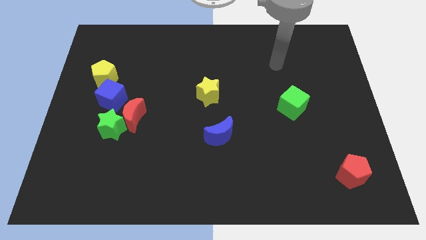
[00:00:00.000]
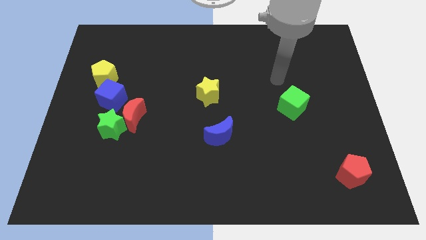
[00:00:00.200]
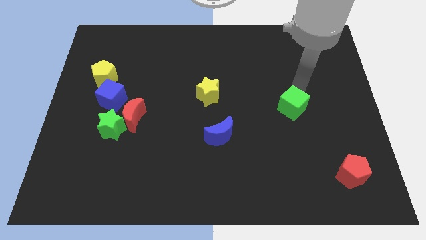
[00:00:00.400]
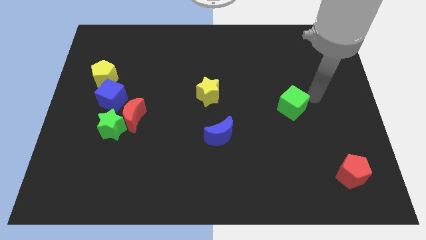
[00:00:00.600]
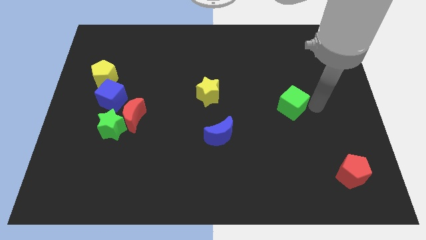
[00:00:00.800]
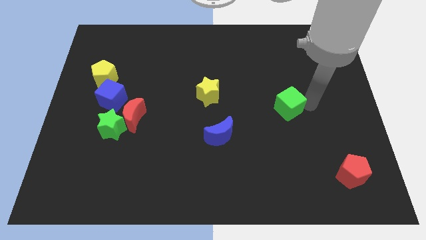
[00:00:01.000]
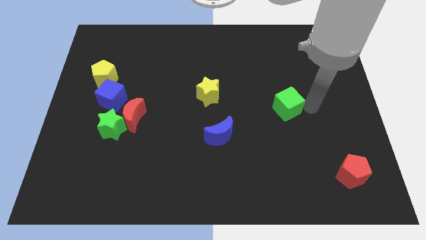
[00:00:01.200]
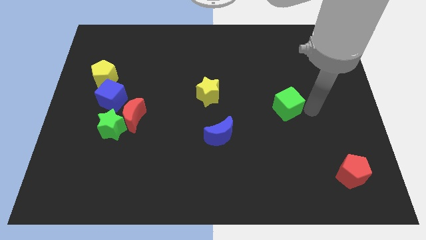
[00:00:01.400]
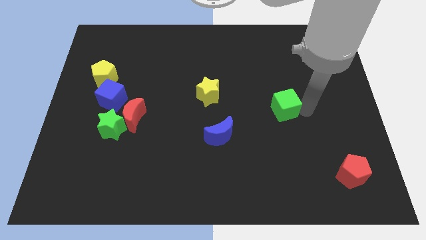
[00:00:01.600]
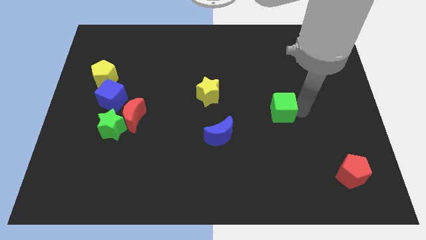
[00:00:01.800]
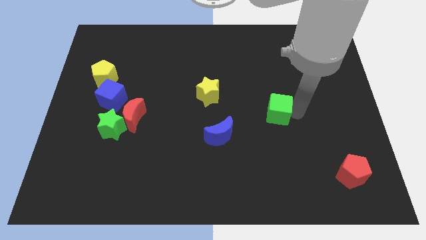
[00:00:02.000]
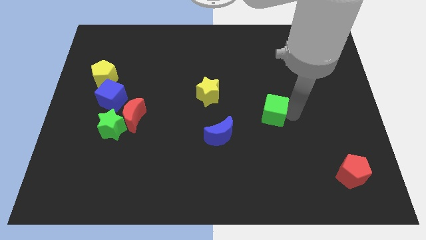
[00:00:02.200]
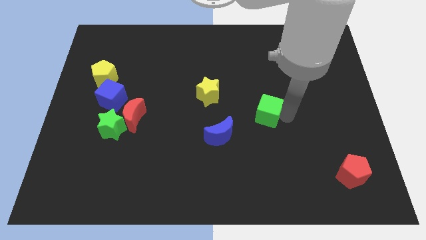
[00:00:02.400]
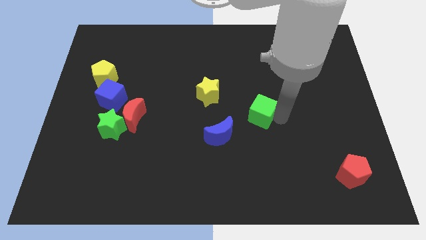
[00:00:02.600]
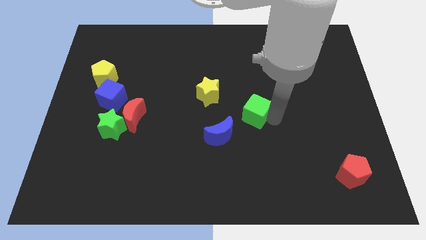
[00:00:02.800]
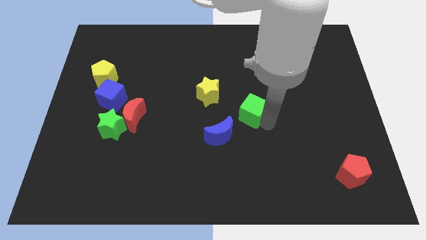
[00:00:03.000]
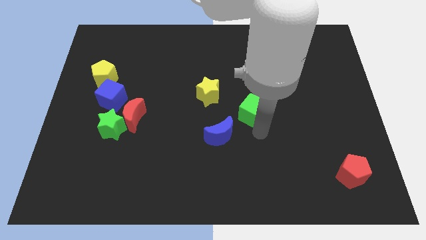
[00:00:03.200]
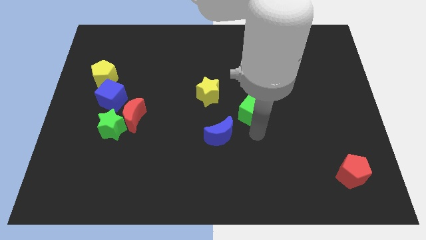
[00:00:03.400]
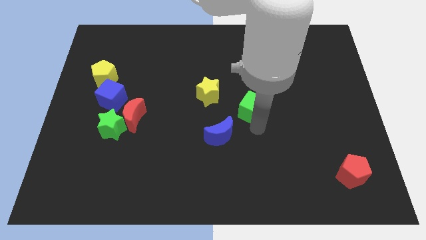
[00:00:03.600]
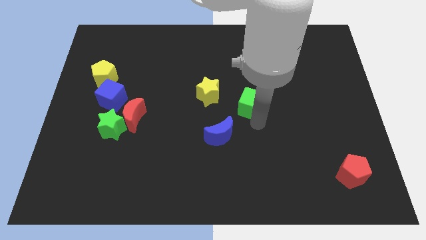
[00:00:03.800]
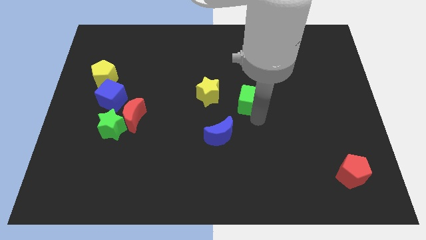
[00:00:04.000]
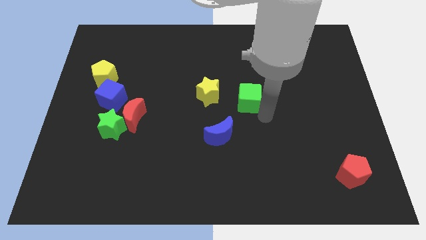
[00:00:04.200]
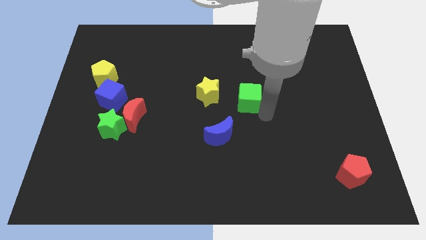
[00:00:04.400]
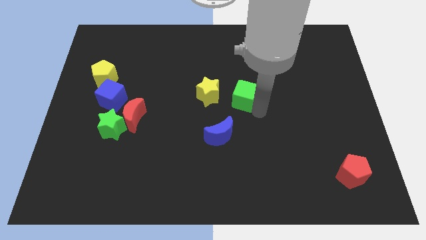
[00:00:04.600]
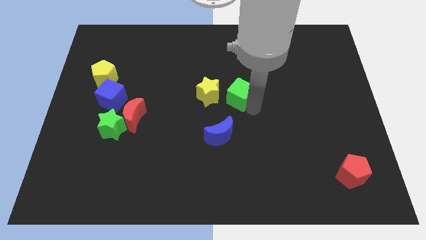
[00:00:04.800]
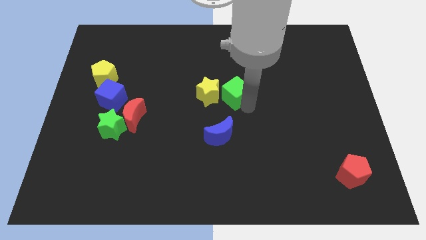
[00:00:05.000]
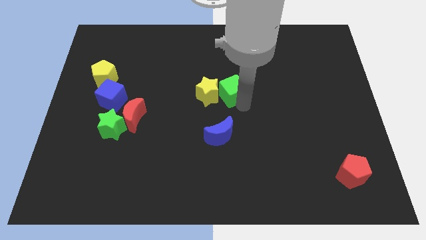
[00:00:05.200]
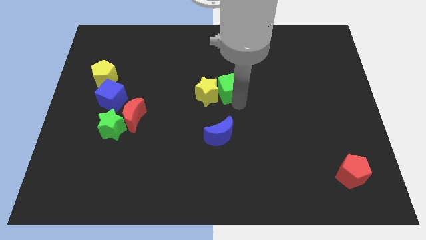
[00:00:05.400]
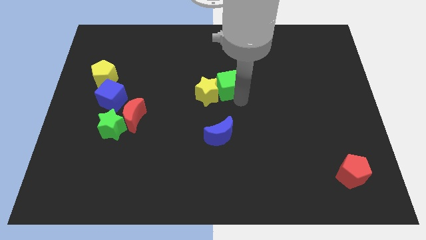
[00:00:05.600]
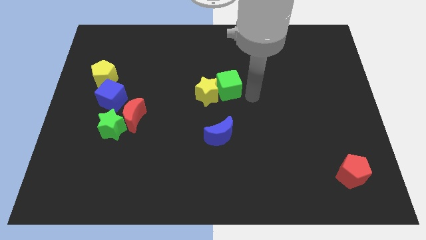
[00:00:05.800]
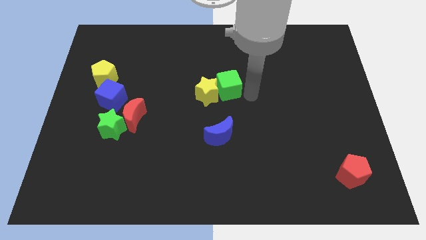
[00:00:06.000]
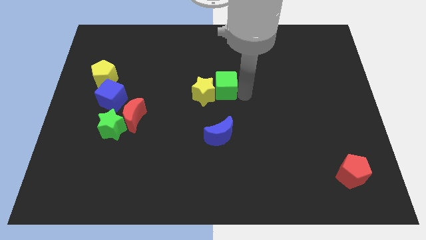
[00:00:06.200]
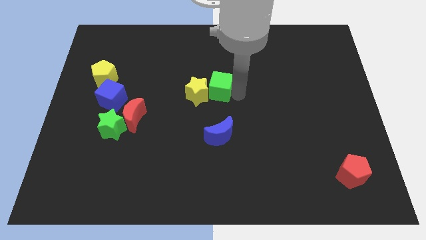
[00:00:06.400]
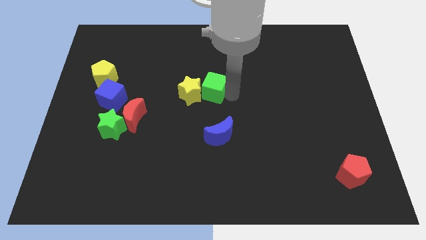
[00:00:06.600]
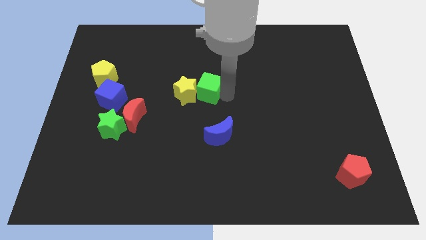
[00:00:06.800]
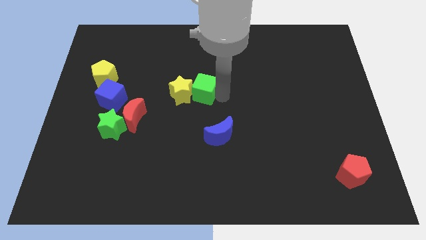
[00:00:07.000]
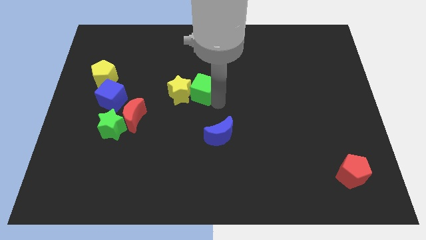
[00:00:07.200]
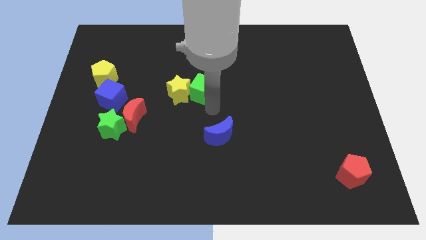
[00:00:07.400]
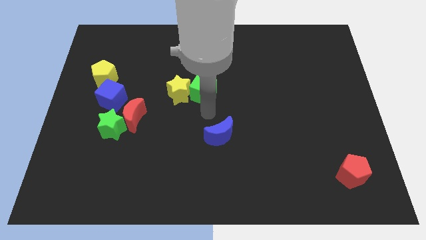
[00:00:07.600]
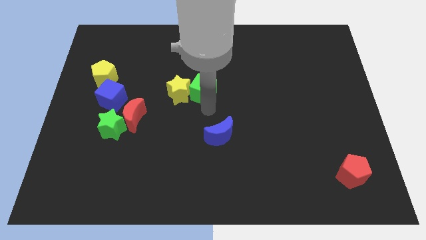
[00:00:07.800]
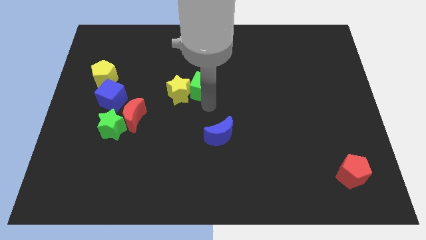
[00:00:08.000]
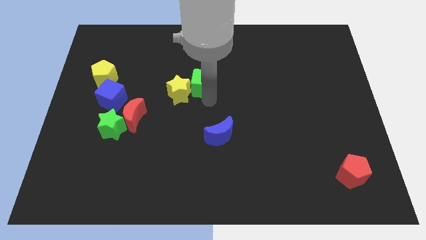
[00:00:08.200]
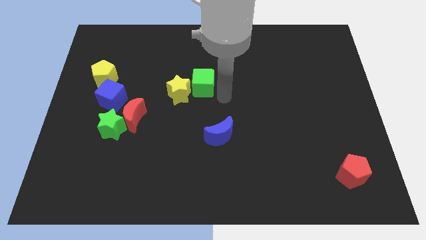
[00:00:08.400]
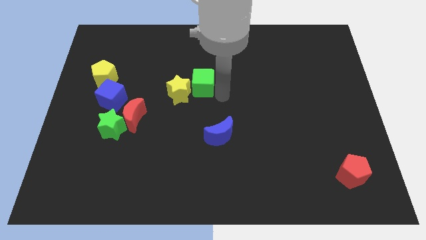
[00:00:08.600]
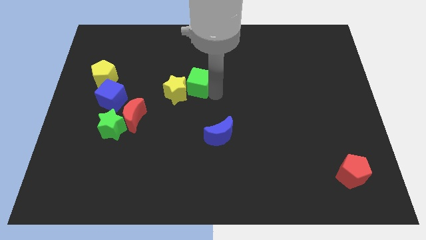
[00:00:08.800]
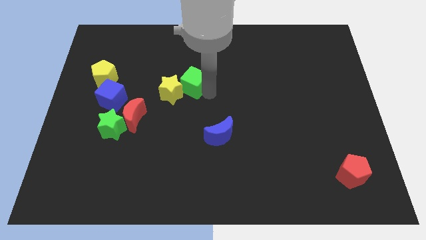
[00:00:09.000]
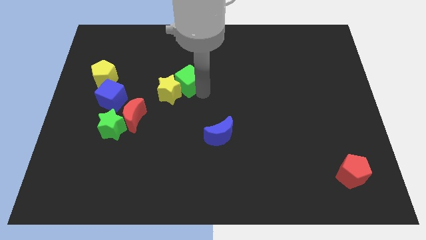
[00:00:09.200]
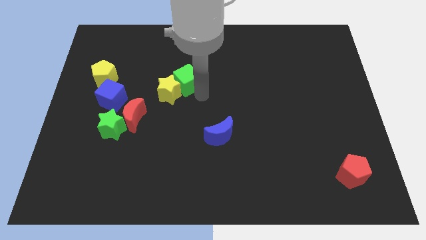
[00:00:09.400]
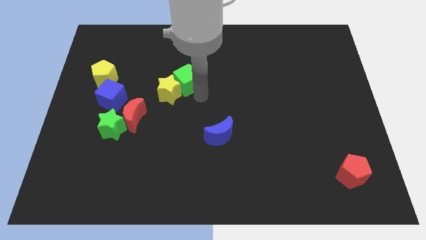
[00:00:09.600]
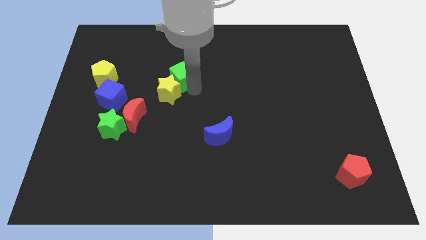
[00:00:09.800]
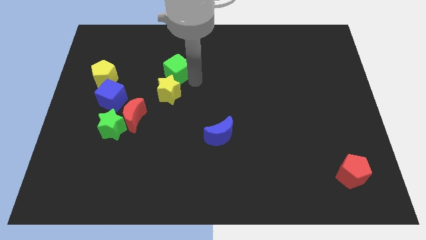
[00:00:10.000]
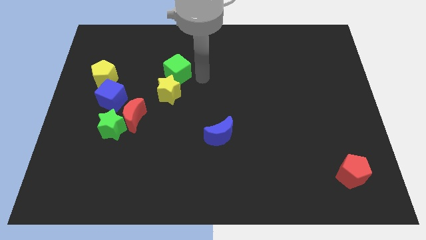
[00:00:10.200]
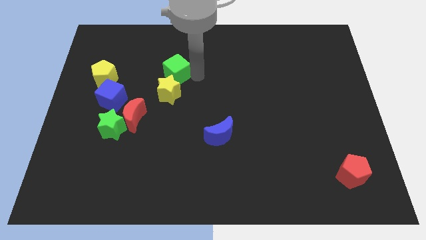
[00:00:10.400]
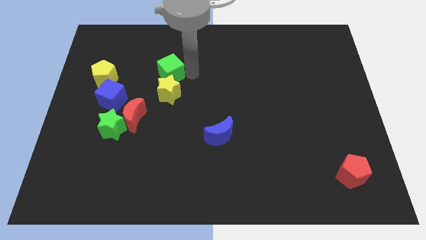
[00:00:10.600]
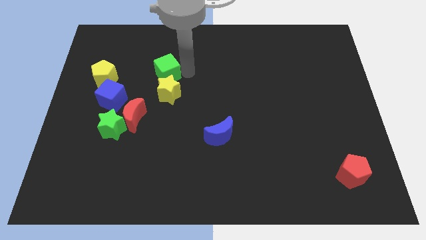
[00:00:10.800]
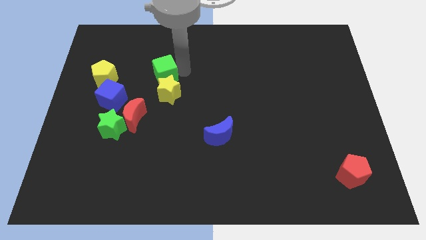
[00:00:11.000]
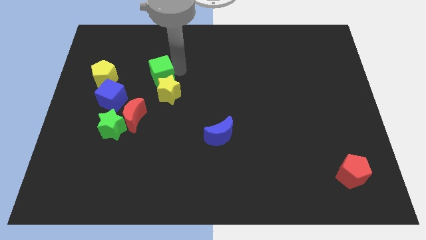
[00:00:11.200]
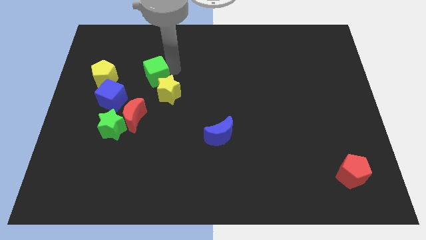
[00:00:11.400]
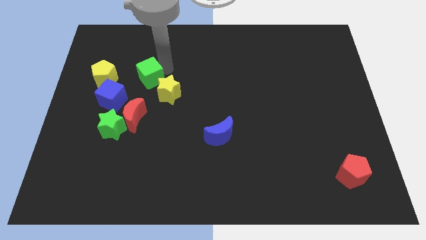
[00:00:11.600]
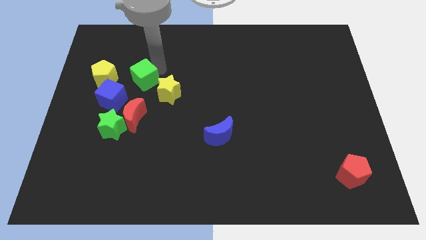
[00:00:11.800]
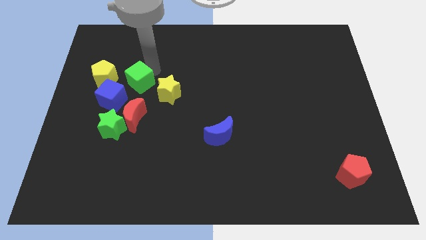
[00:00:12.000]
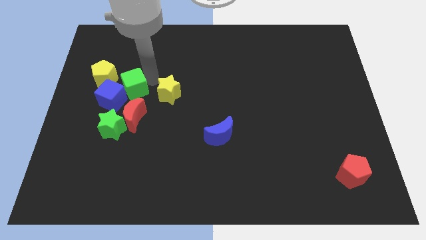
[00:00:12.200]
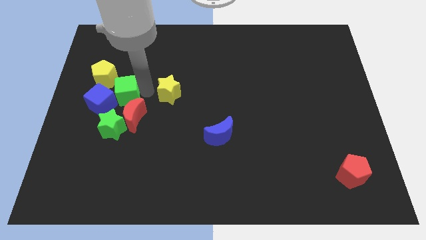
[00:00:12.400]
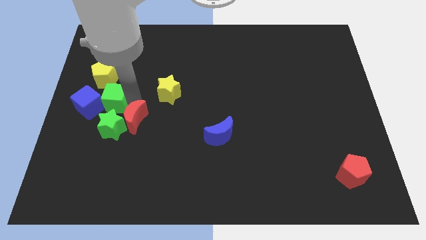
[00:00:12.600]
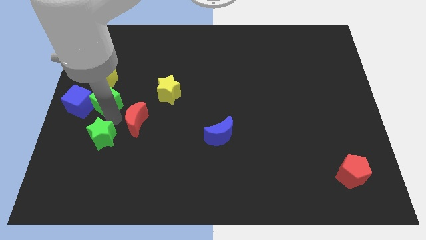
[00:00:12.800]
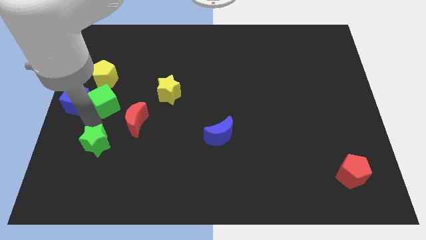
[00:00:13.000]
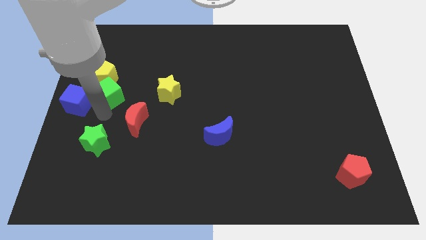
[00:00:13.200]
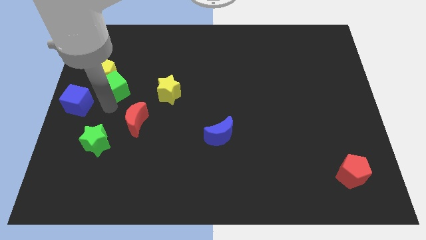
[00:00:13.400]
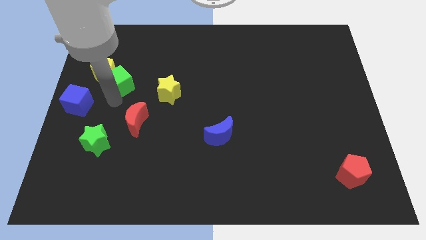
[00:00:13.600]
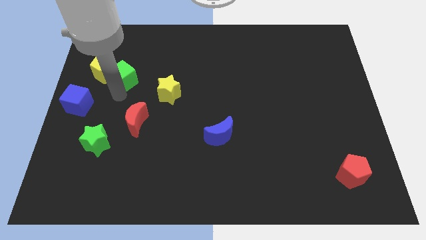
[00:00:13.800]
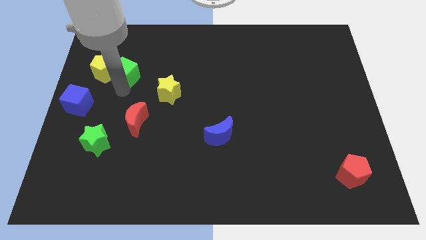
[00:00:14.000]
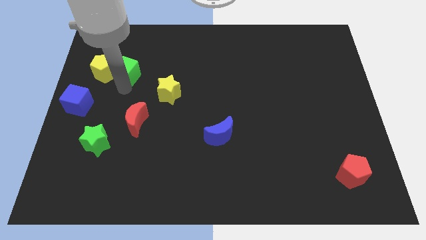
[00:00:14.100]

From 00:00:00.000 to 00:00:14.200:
put the green cube to the top right of the yellow pentagon
